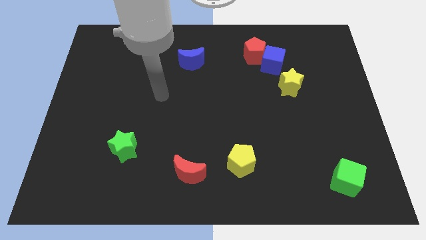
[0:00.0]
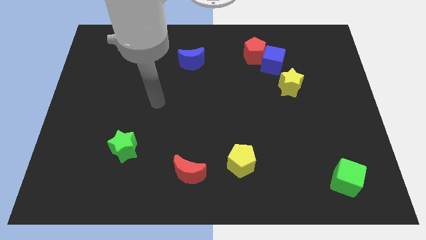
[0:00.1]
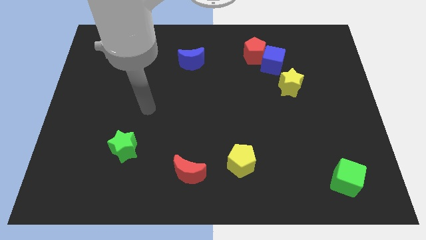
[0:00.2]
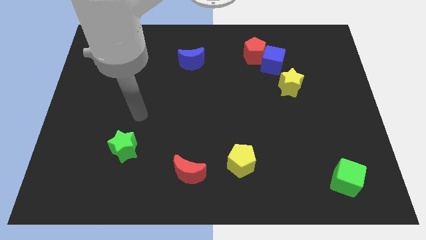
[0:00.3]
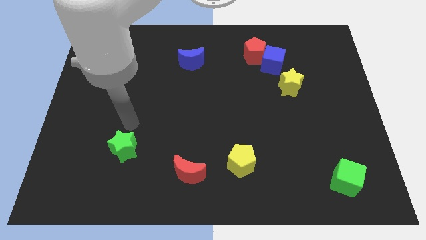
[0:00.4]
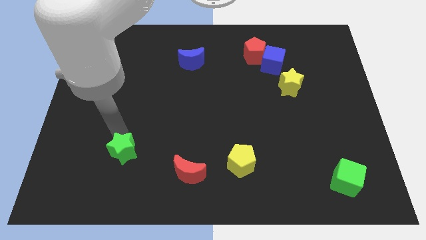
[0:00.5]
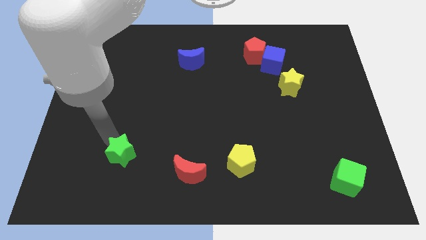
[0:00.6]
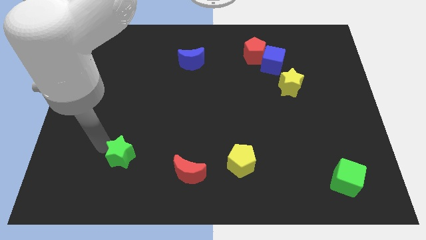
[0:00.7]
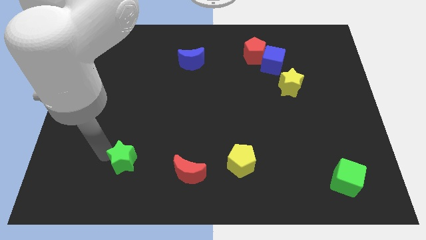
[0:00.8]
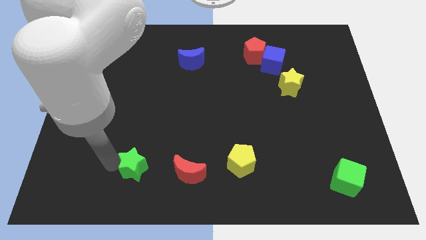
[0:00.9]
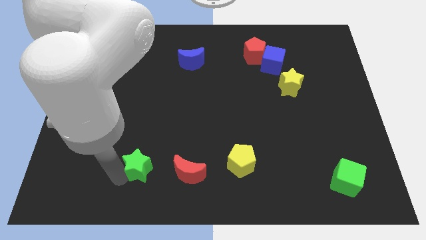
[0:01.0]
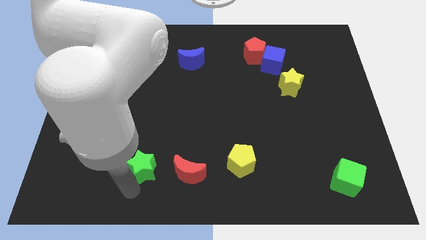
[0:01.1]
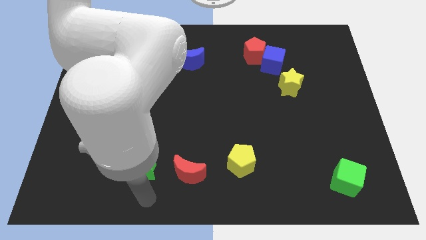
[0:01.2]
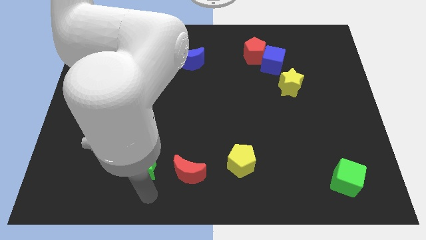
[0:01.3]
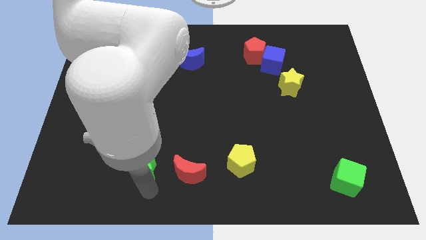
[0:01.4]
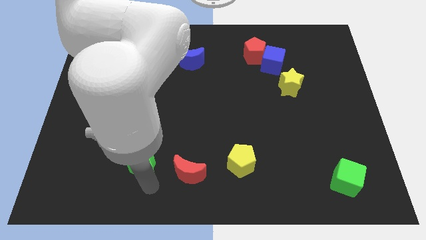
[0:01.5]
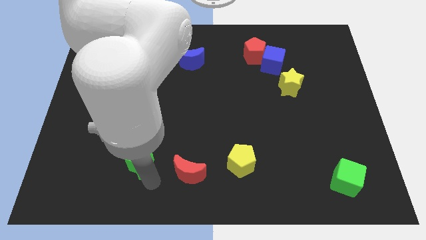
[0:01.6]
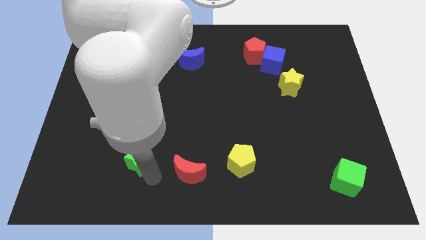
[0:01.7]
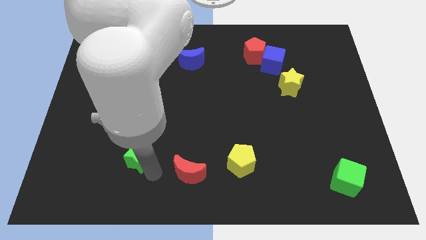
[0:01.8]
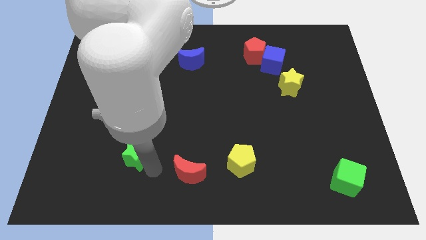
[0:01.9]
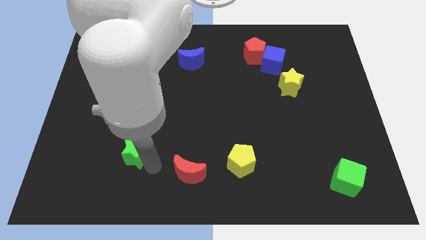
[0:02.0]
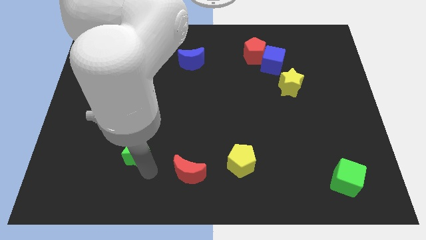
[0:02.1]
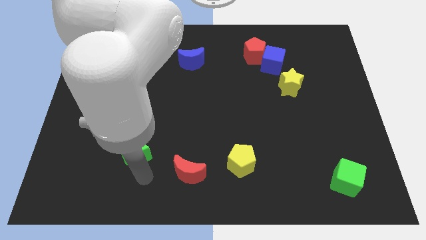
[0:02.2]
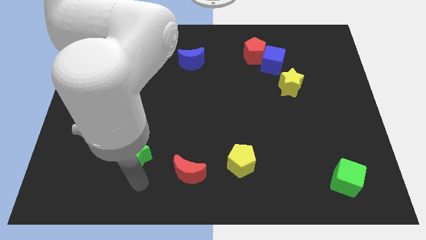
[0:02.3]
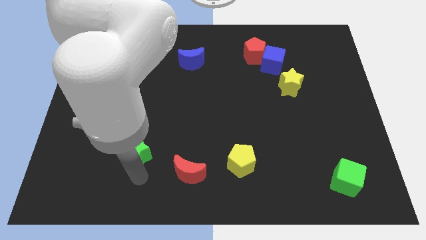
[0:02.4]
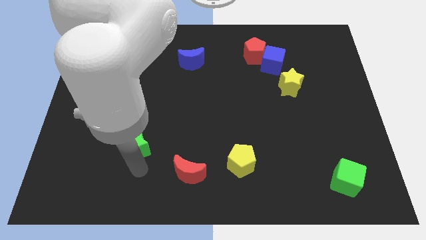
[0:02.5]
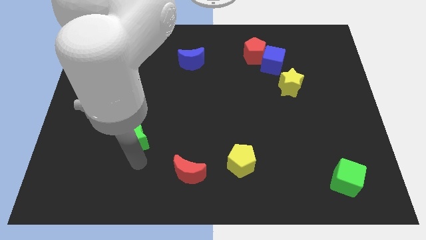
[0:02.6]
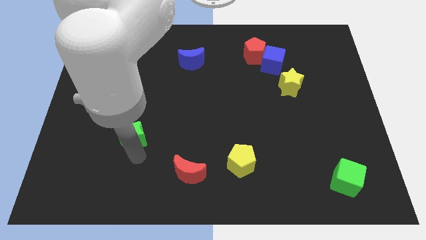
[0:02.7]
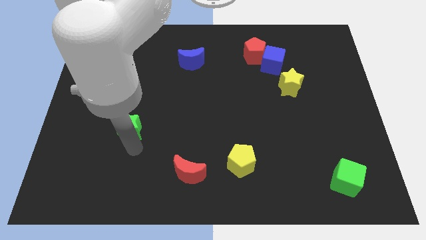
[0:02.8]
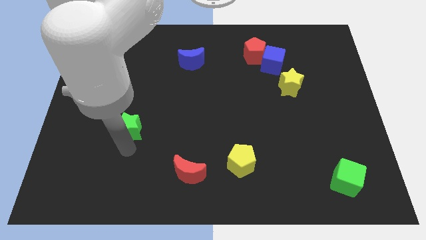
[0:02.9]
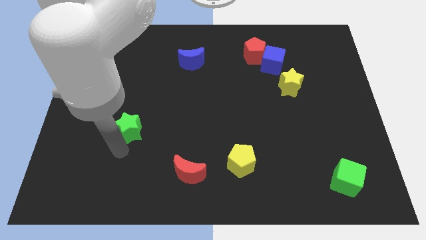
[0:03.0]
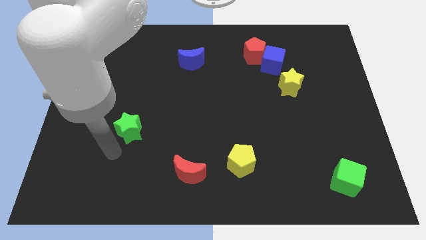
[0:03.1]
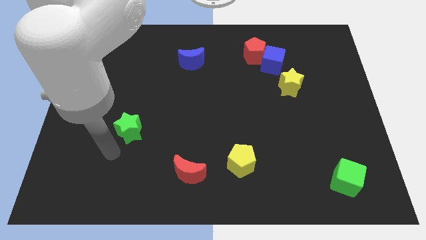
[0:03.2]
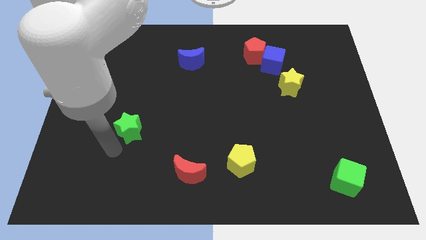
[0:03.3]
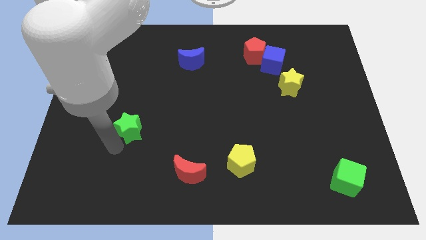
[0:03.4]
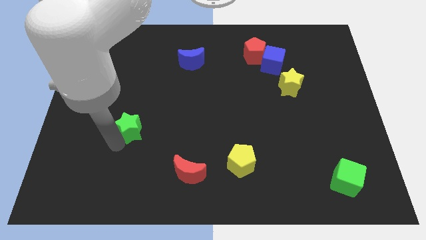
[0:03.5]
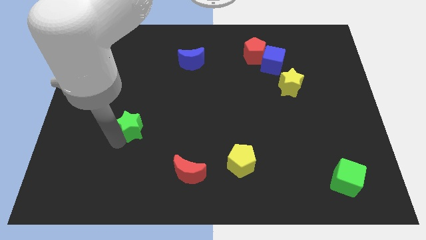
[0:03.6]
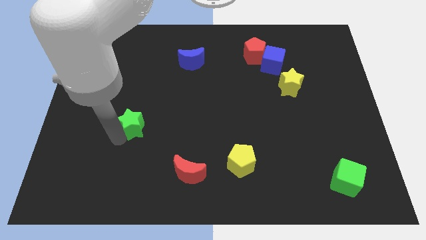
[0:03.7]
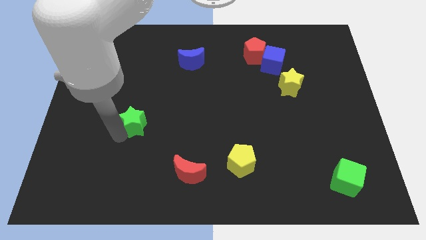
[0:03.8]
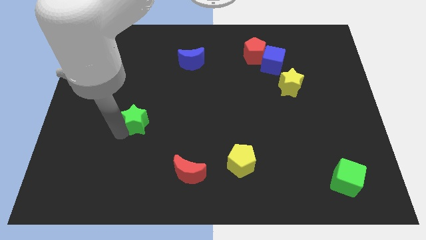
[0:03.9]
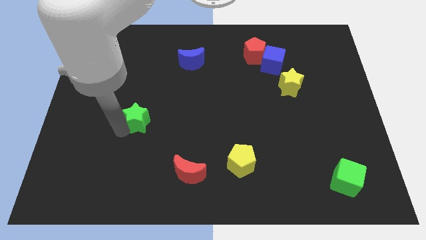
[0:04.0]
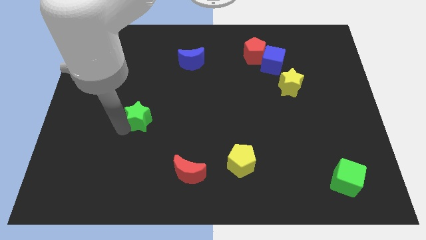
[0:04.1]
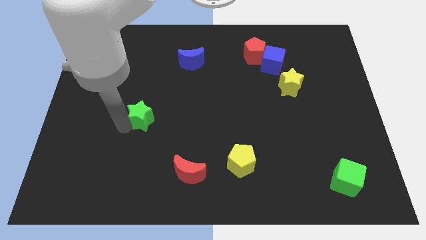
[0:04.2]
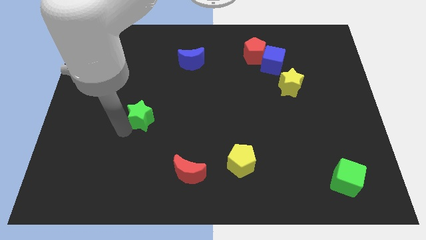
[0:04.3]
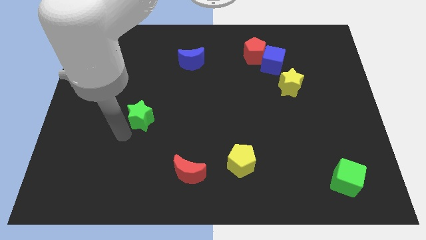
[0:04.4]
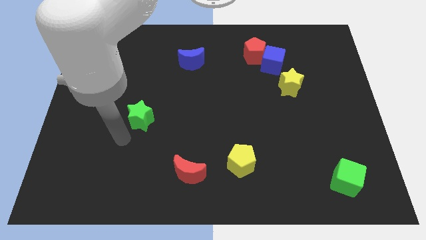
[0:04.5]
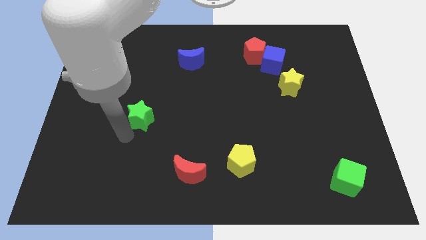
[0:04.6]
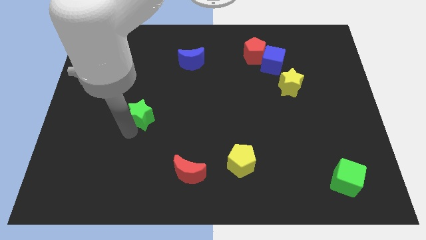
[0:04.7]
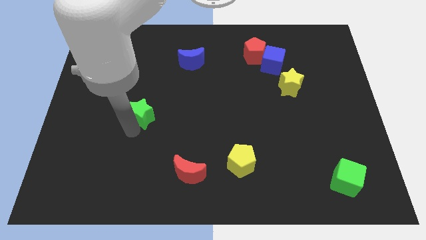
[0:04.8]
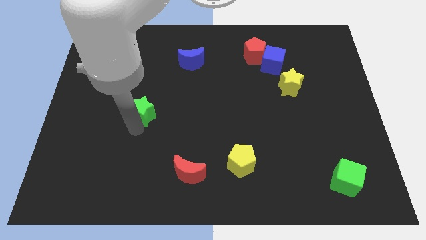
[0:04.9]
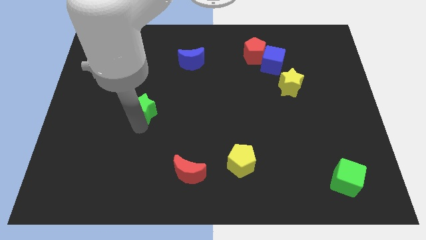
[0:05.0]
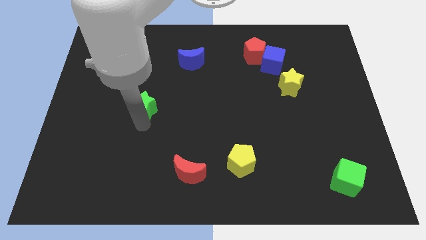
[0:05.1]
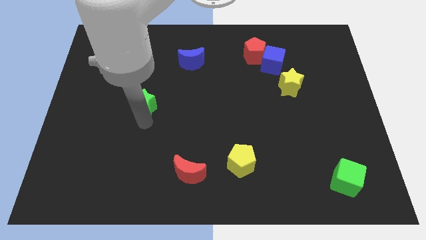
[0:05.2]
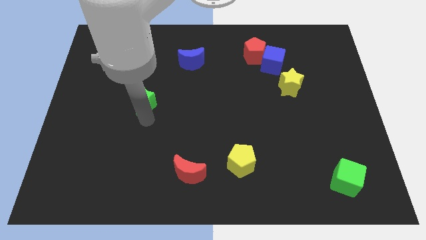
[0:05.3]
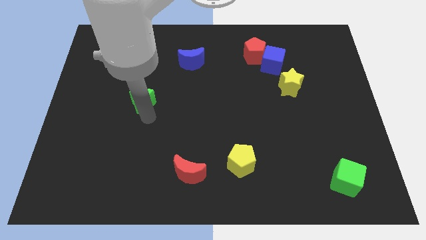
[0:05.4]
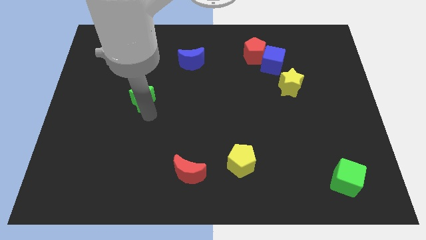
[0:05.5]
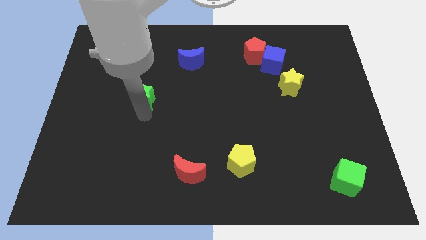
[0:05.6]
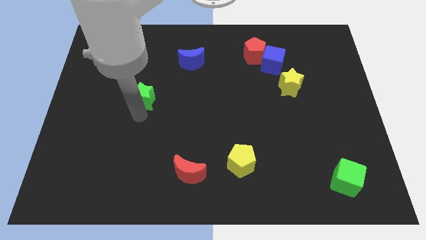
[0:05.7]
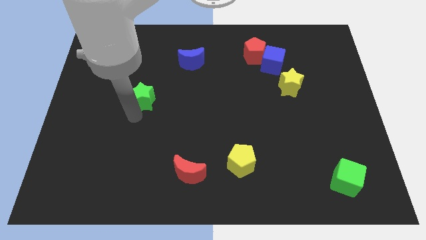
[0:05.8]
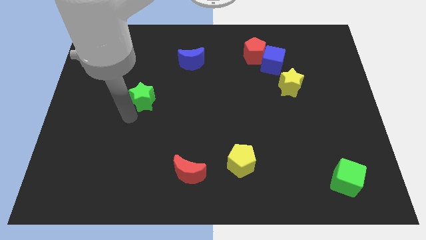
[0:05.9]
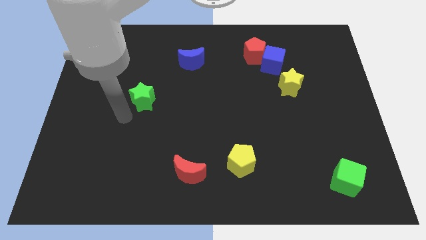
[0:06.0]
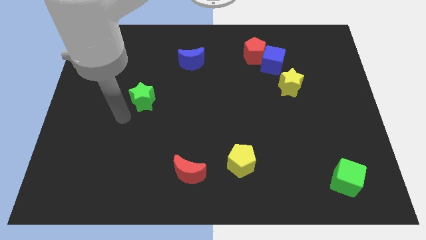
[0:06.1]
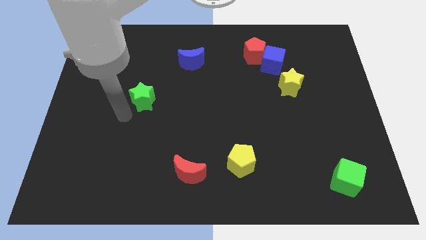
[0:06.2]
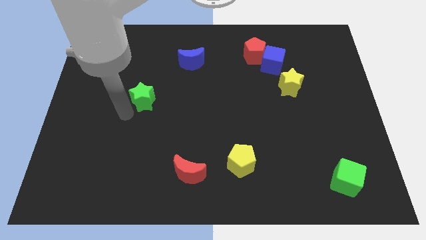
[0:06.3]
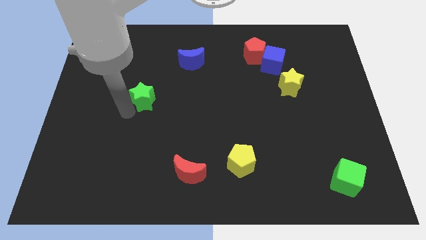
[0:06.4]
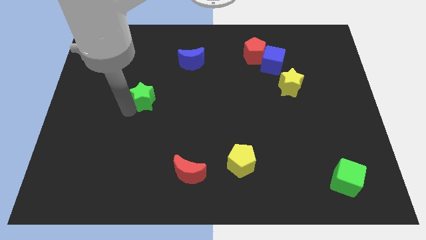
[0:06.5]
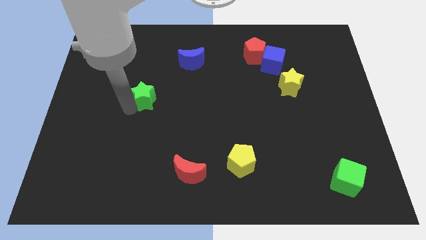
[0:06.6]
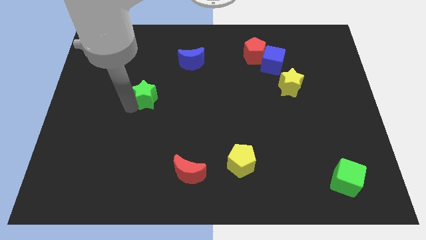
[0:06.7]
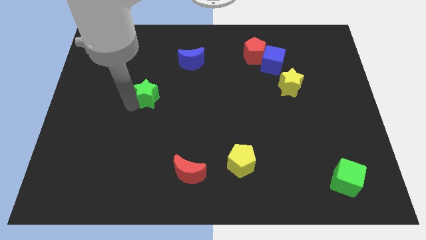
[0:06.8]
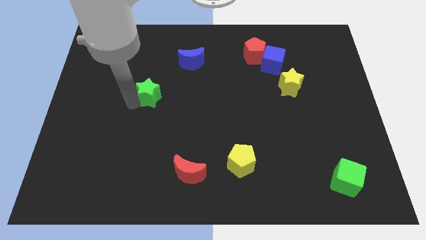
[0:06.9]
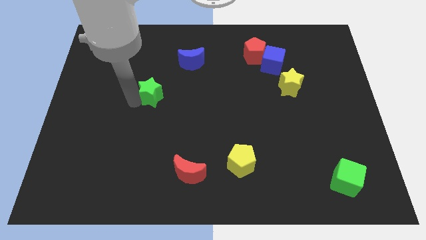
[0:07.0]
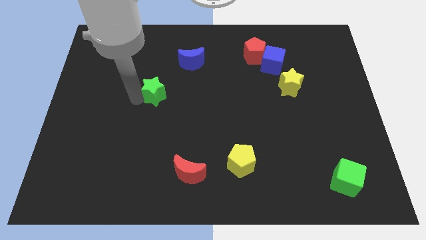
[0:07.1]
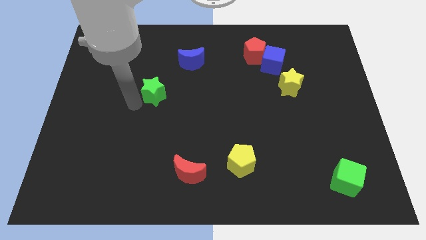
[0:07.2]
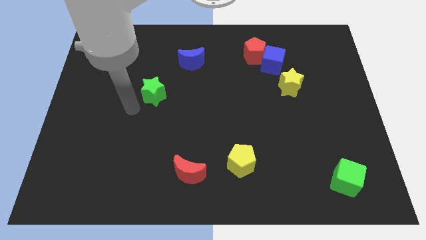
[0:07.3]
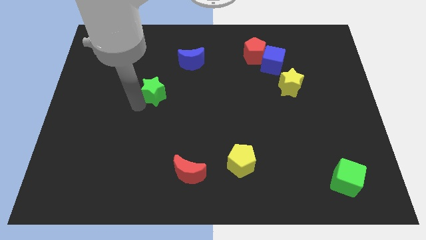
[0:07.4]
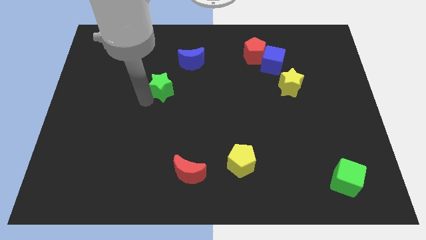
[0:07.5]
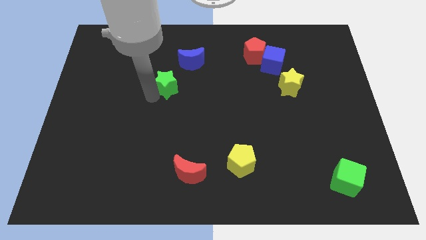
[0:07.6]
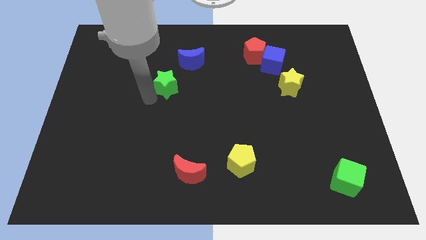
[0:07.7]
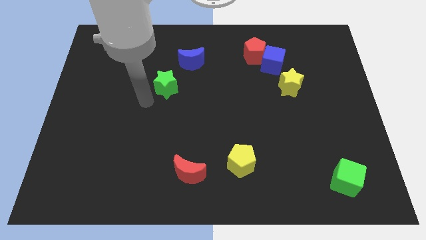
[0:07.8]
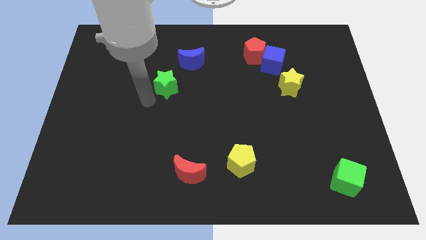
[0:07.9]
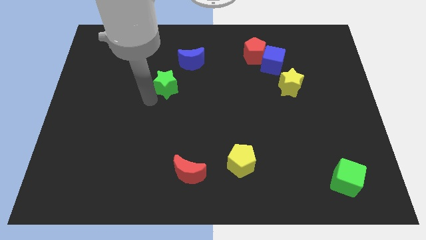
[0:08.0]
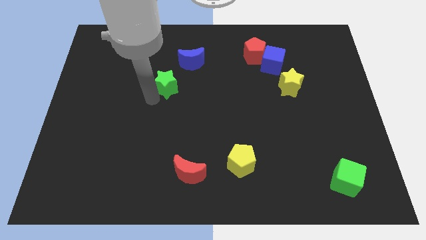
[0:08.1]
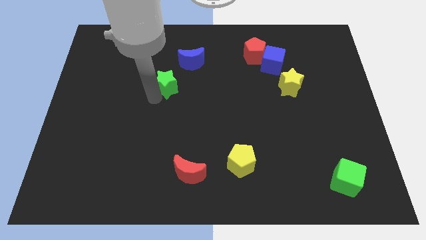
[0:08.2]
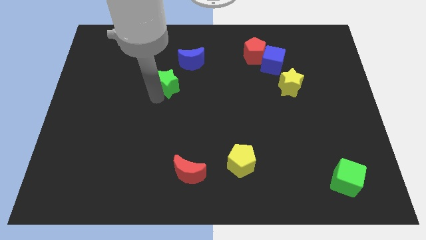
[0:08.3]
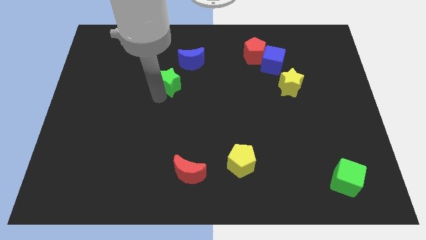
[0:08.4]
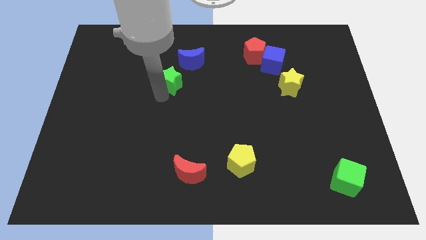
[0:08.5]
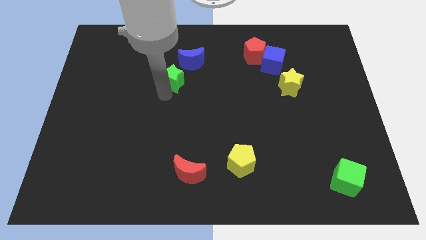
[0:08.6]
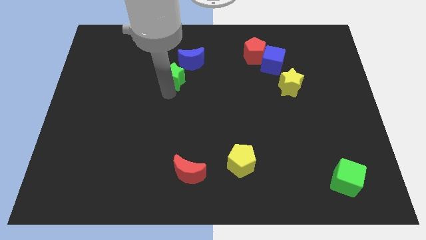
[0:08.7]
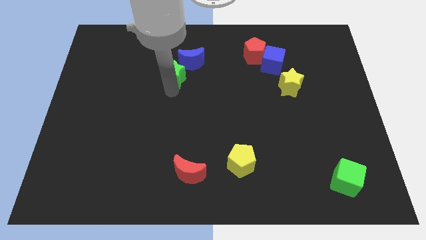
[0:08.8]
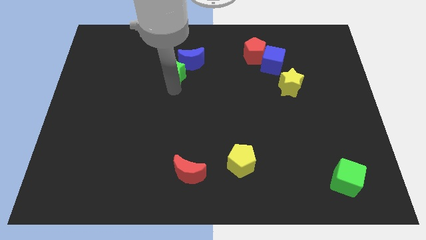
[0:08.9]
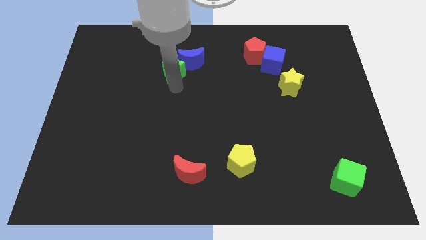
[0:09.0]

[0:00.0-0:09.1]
put the green star to the blue moon
